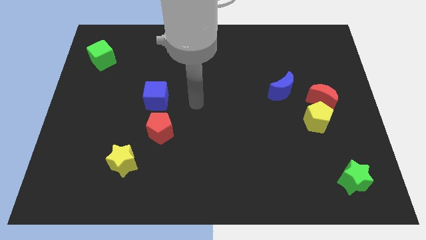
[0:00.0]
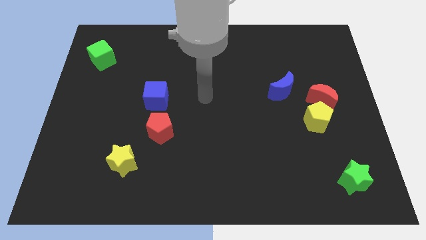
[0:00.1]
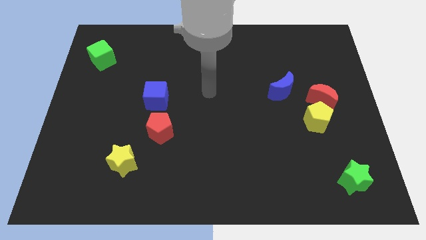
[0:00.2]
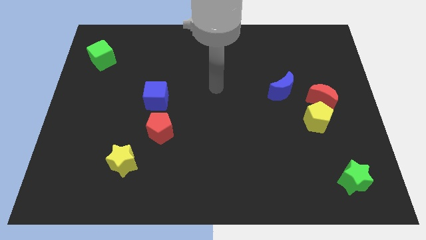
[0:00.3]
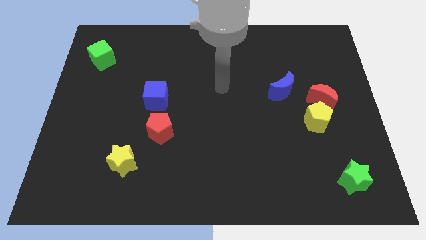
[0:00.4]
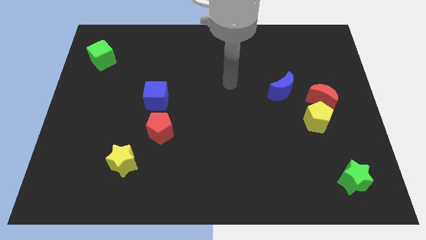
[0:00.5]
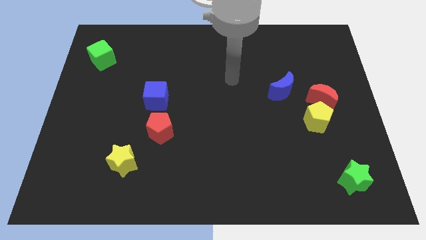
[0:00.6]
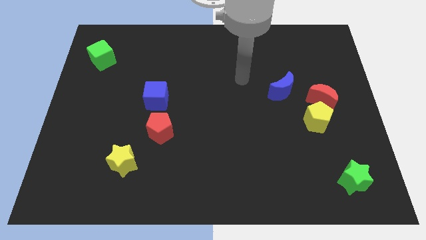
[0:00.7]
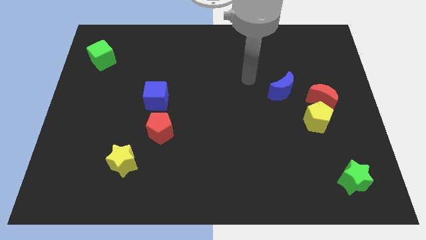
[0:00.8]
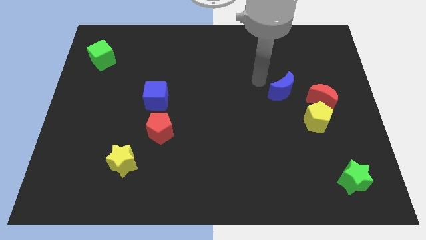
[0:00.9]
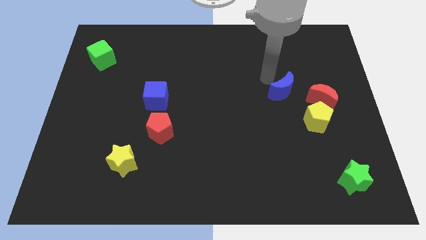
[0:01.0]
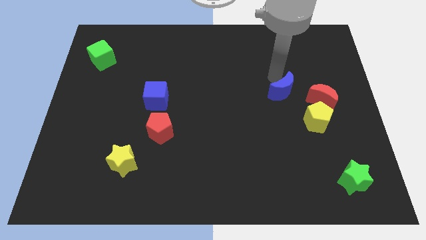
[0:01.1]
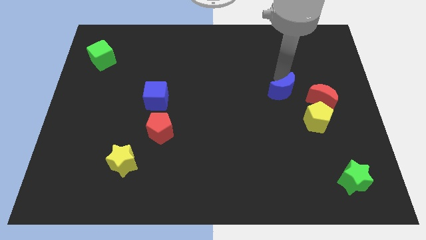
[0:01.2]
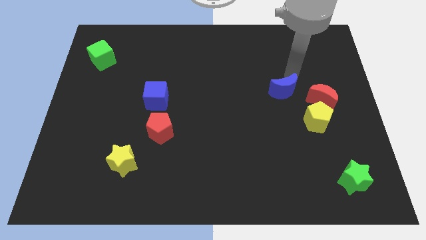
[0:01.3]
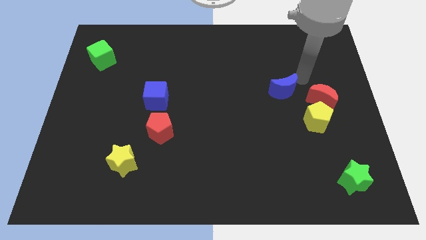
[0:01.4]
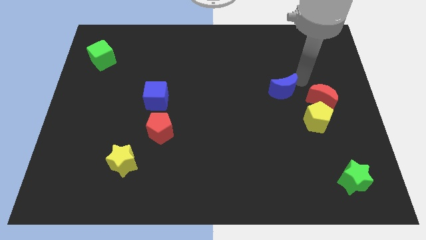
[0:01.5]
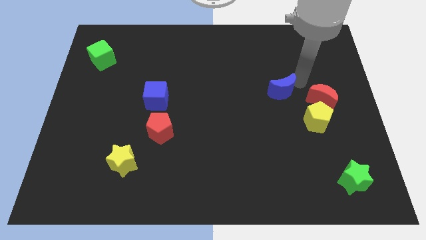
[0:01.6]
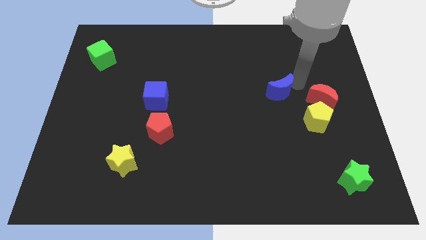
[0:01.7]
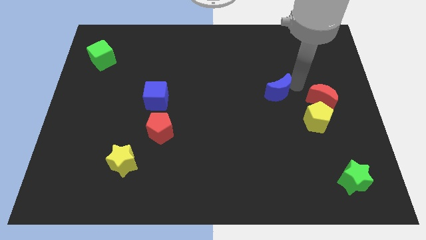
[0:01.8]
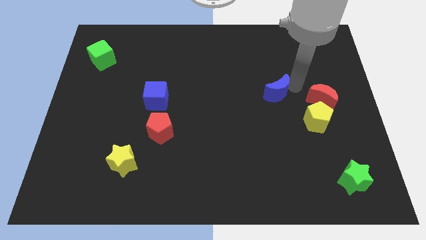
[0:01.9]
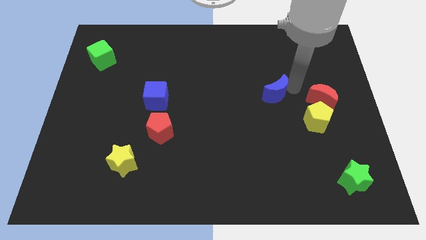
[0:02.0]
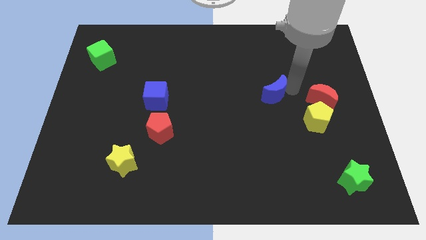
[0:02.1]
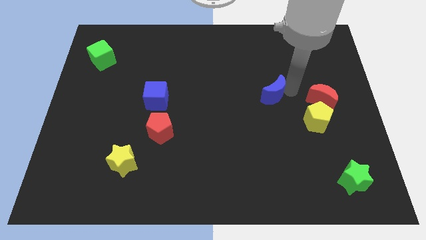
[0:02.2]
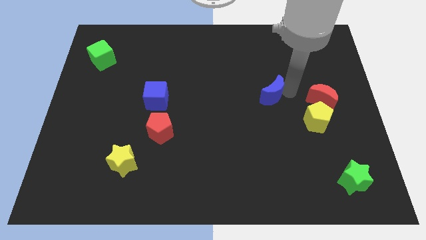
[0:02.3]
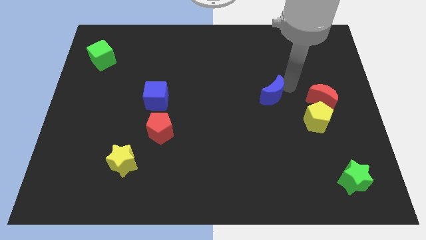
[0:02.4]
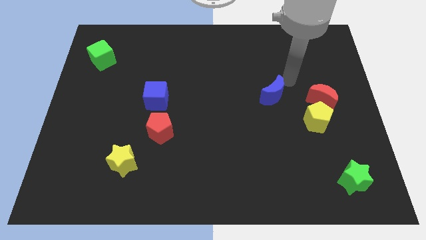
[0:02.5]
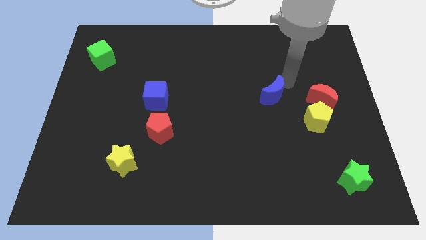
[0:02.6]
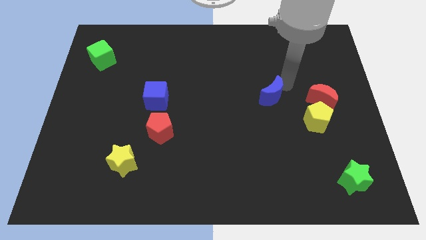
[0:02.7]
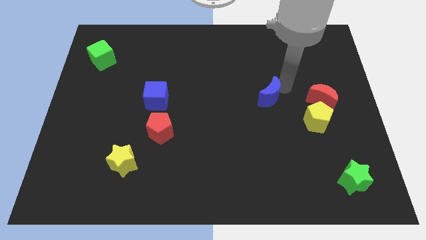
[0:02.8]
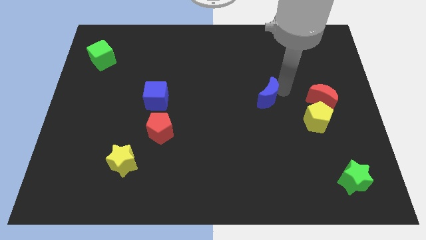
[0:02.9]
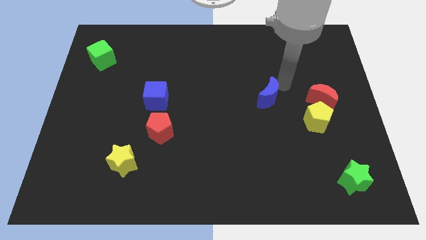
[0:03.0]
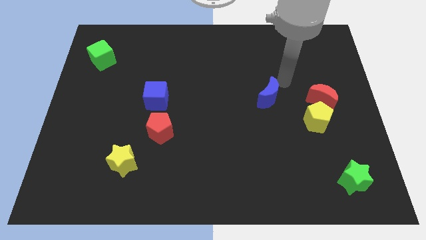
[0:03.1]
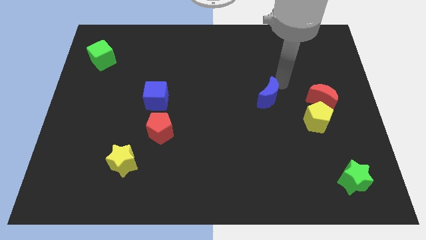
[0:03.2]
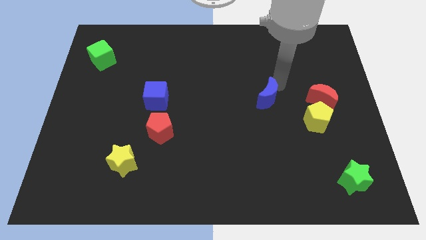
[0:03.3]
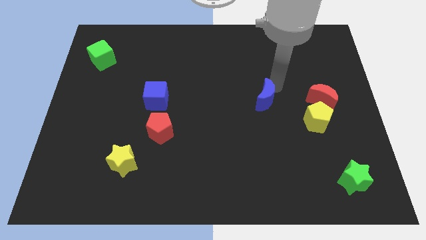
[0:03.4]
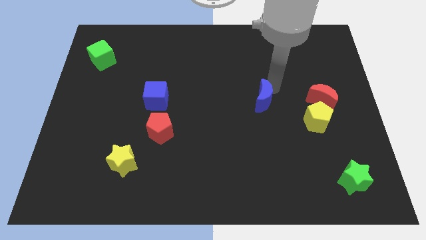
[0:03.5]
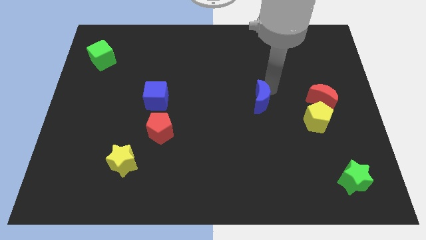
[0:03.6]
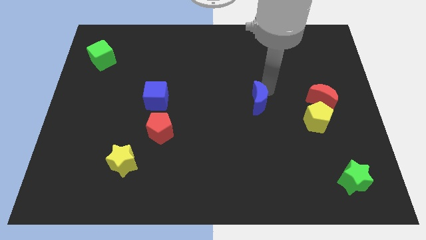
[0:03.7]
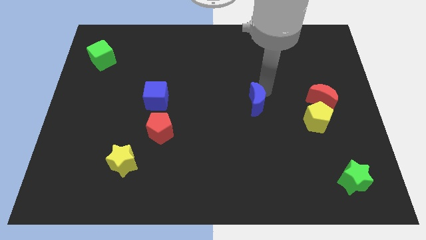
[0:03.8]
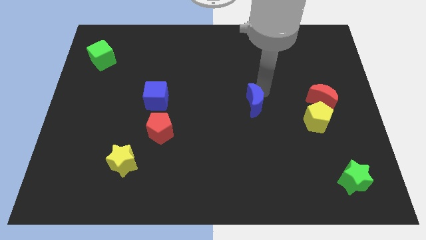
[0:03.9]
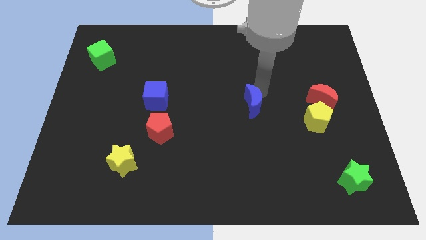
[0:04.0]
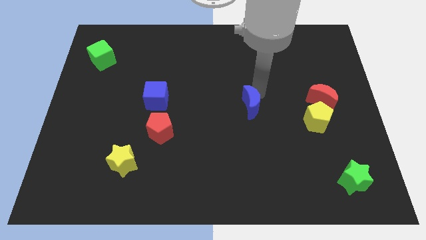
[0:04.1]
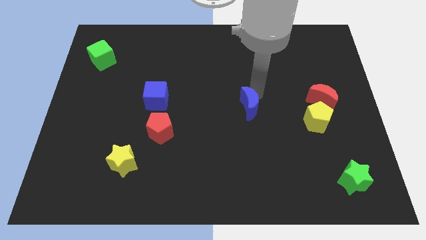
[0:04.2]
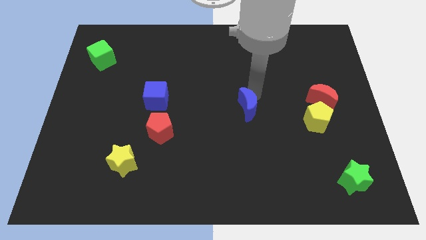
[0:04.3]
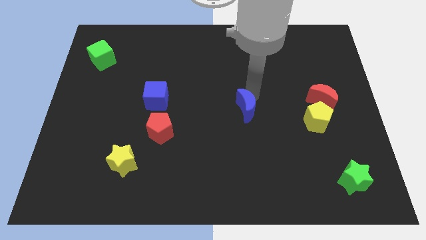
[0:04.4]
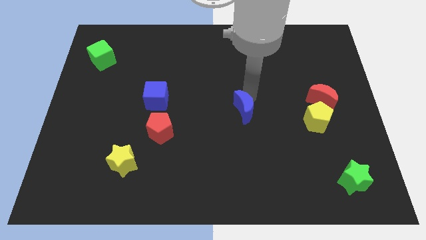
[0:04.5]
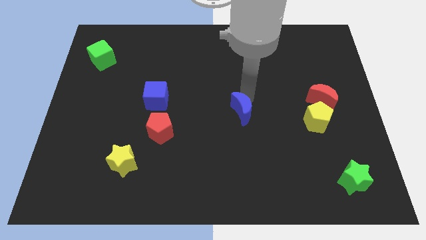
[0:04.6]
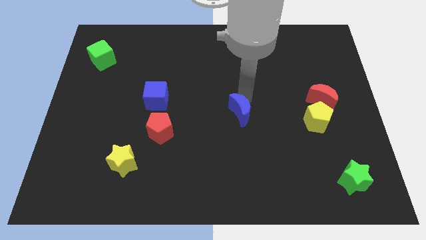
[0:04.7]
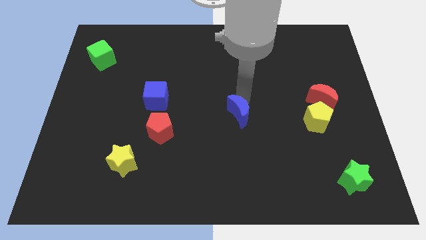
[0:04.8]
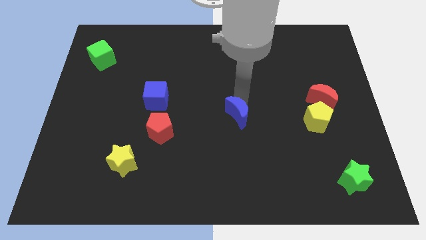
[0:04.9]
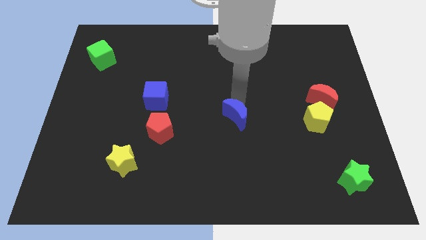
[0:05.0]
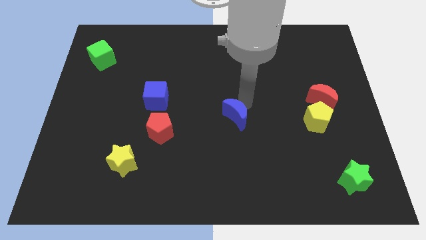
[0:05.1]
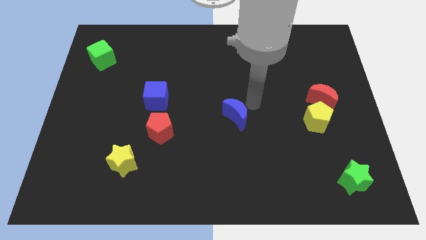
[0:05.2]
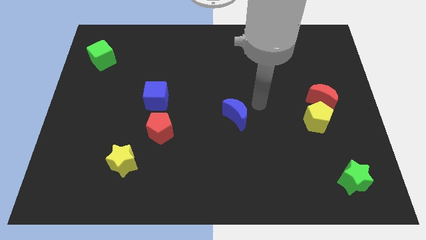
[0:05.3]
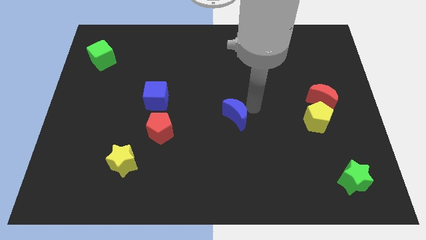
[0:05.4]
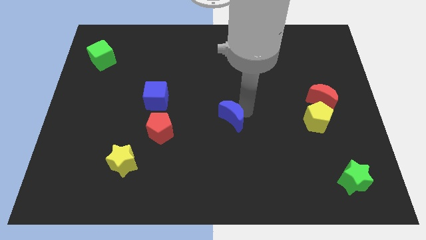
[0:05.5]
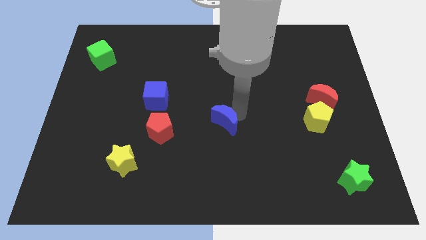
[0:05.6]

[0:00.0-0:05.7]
put the blue moon to the right side of the red pentagon

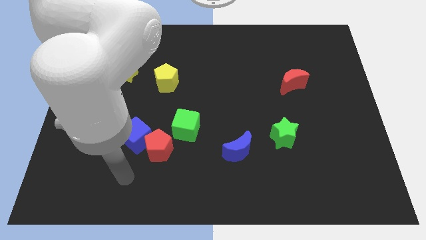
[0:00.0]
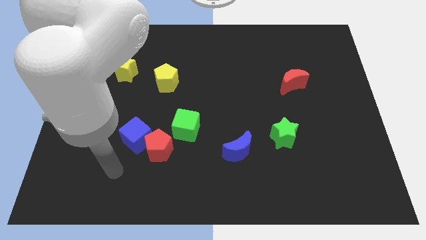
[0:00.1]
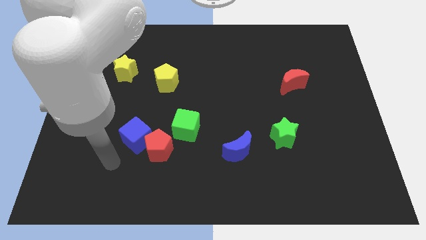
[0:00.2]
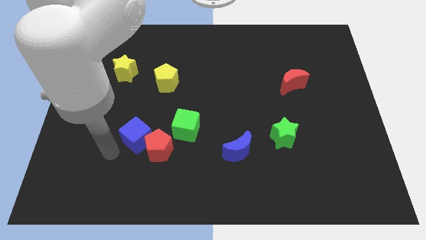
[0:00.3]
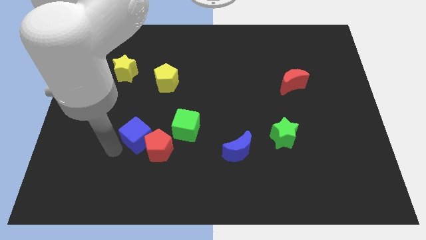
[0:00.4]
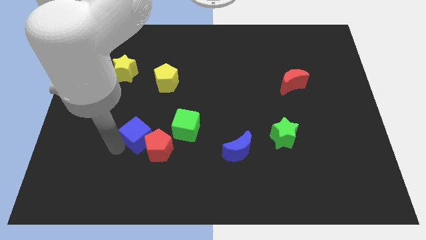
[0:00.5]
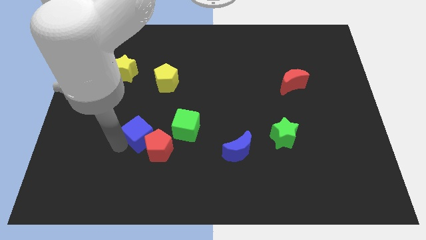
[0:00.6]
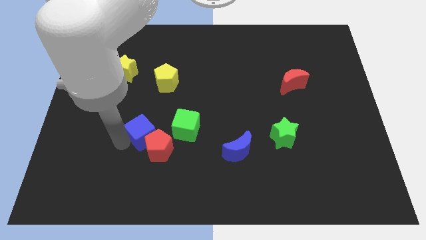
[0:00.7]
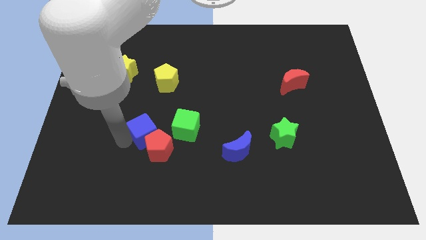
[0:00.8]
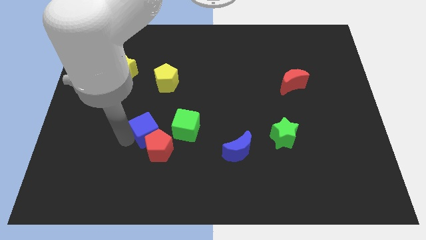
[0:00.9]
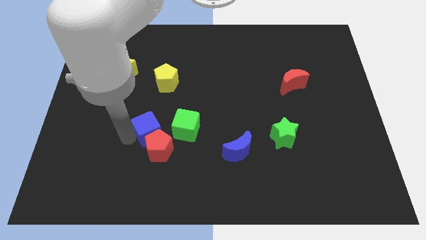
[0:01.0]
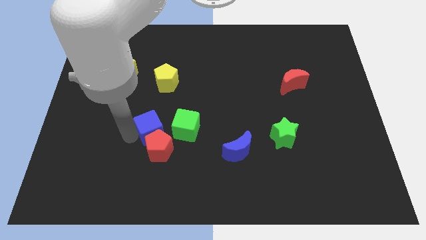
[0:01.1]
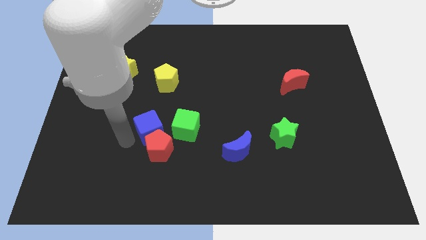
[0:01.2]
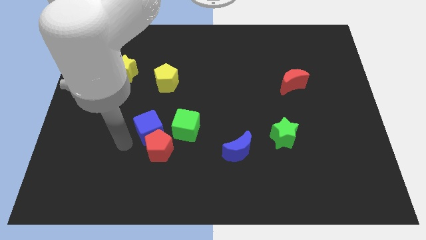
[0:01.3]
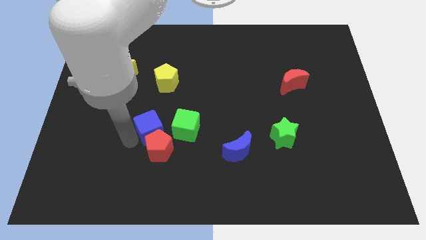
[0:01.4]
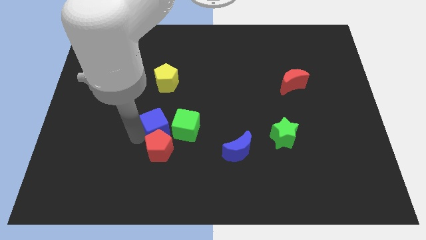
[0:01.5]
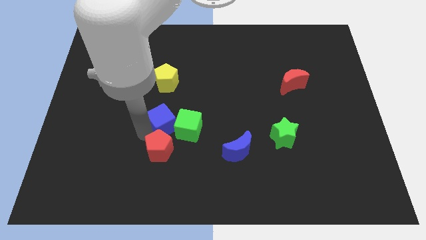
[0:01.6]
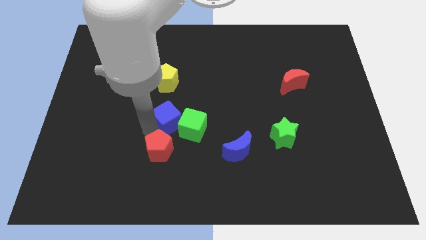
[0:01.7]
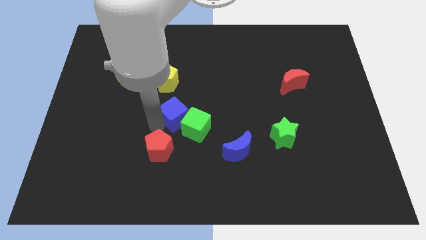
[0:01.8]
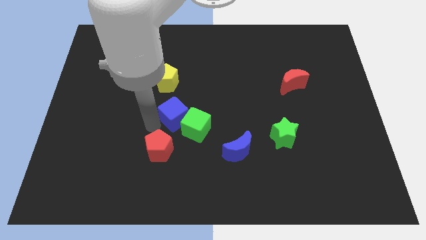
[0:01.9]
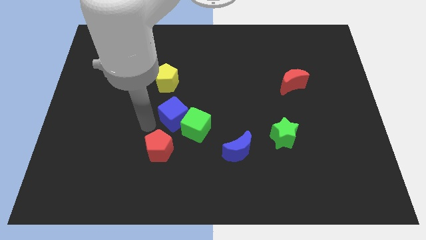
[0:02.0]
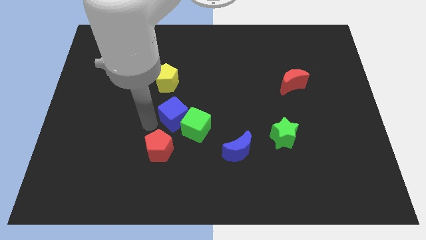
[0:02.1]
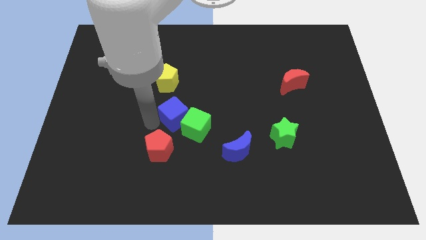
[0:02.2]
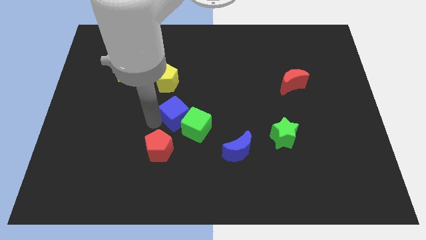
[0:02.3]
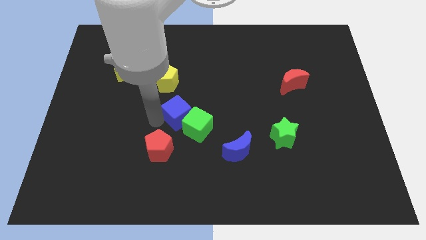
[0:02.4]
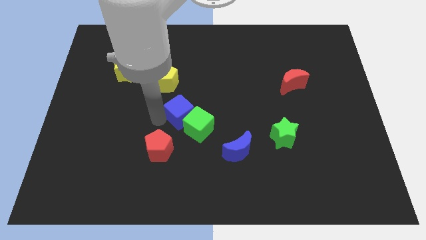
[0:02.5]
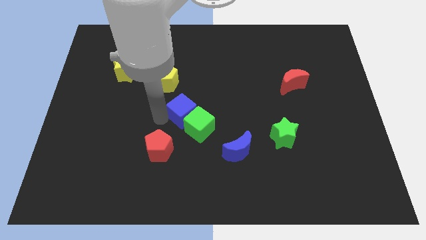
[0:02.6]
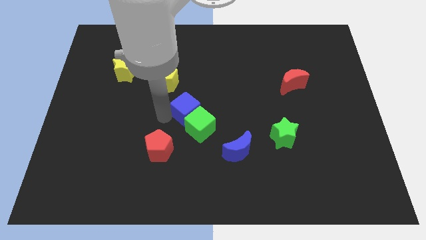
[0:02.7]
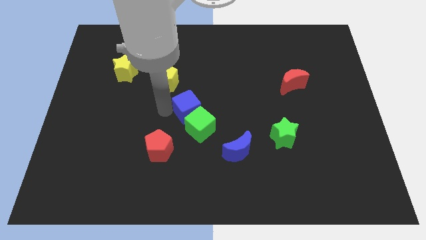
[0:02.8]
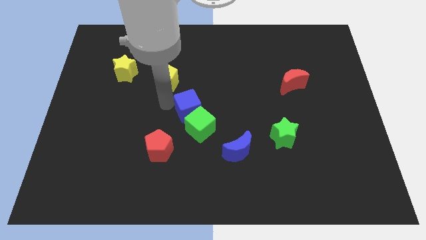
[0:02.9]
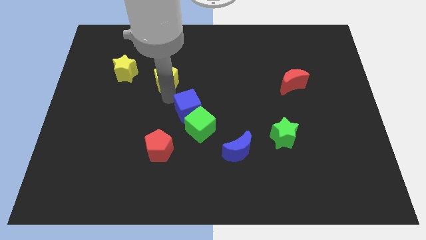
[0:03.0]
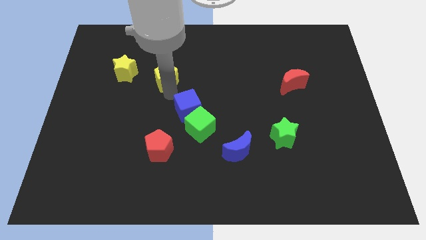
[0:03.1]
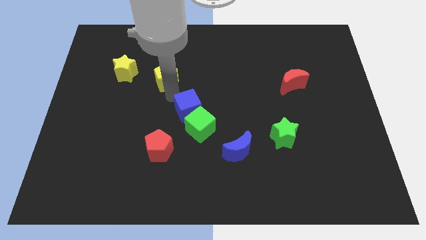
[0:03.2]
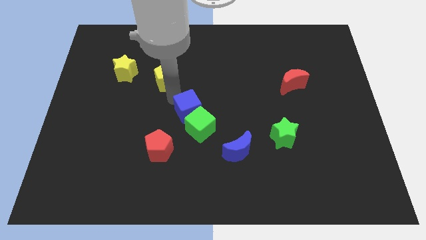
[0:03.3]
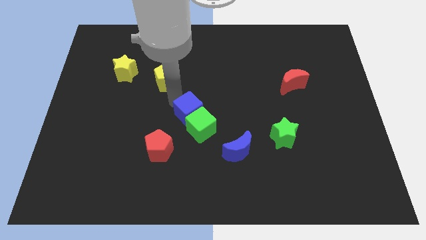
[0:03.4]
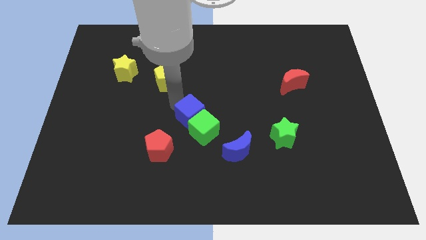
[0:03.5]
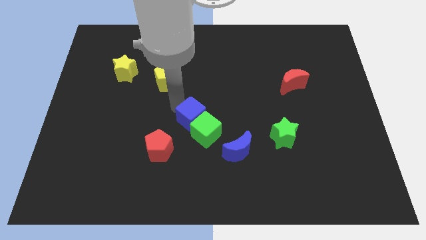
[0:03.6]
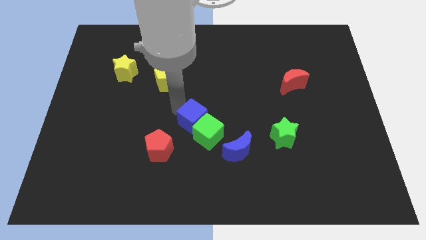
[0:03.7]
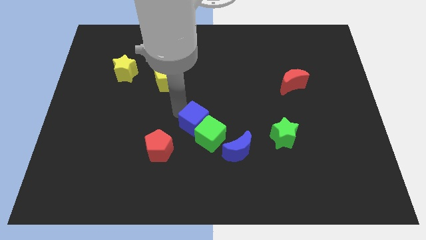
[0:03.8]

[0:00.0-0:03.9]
move the blue cube diagonally up and to the left of the blue moon
